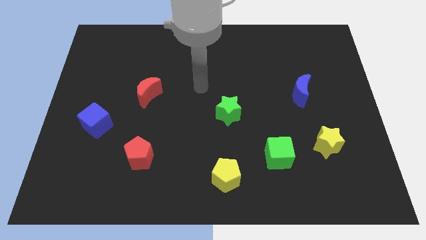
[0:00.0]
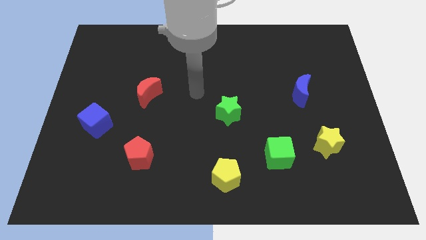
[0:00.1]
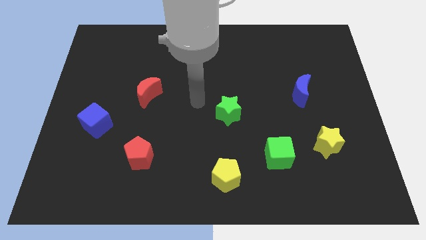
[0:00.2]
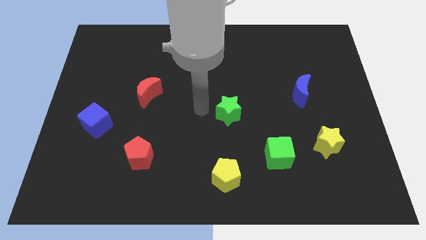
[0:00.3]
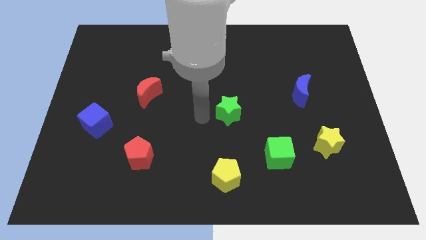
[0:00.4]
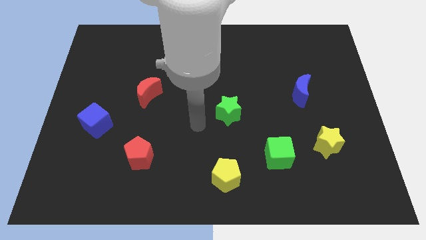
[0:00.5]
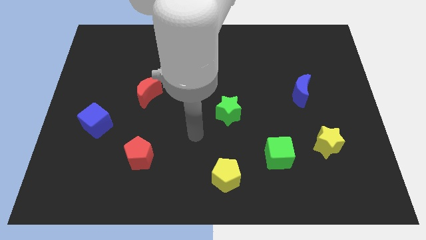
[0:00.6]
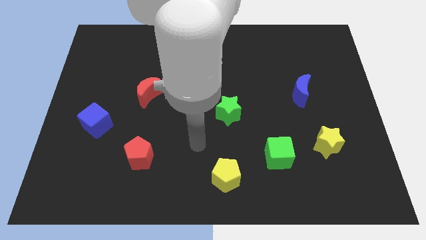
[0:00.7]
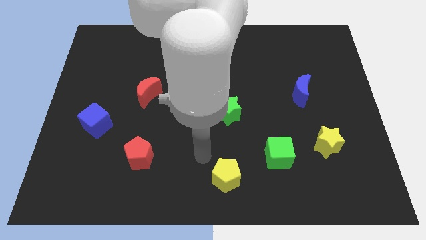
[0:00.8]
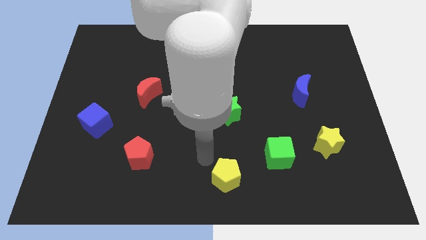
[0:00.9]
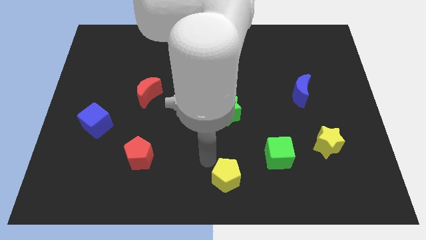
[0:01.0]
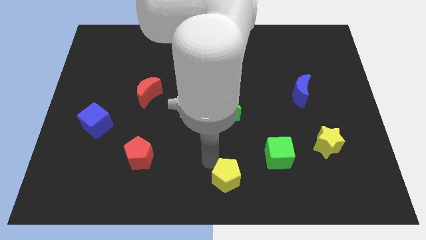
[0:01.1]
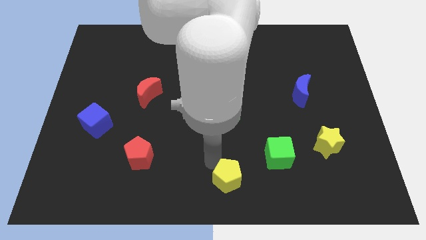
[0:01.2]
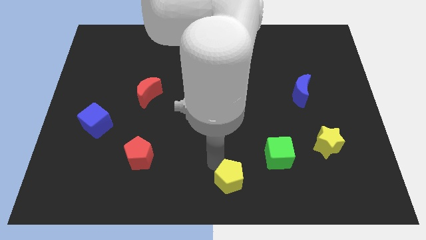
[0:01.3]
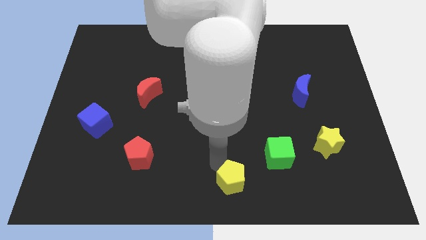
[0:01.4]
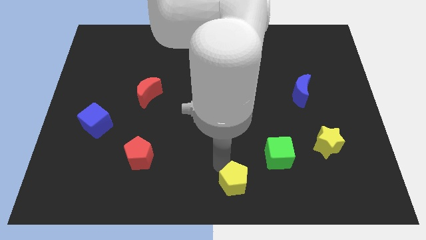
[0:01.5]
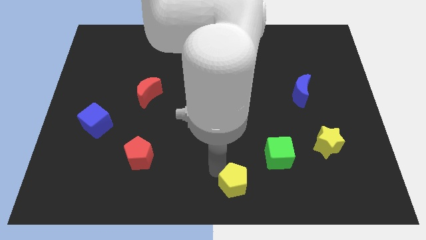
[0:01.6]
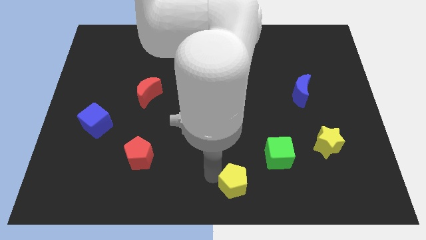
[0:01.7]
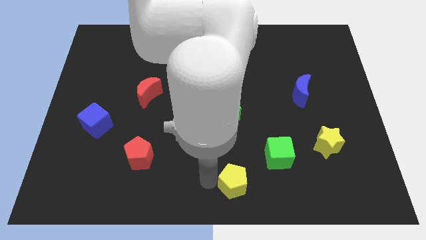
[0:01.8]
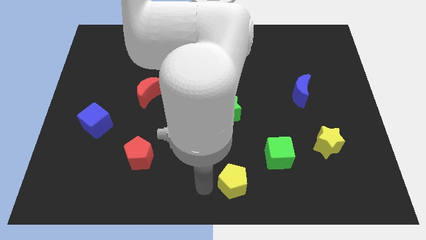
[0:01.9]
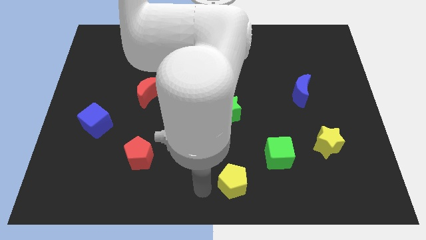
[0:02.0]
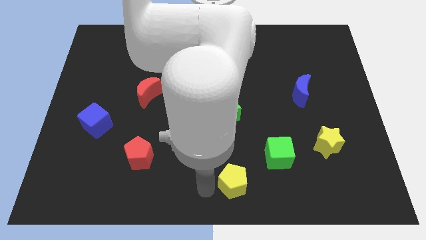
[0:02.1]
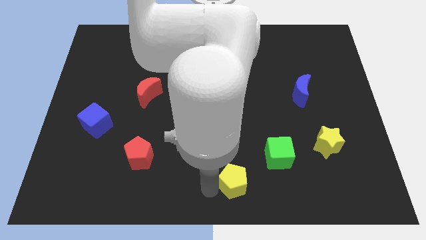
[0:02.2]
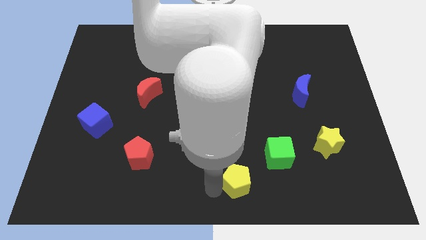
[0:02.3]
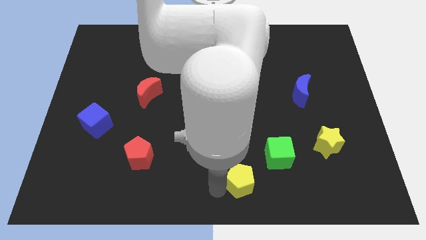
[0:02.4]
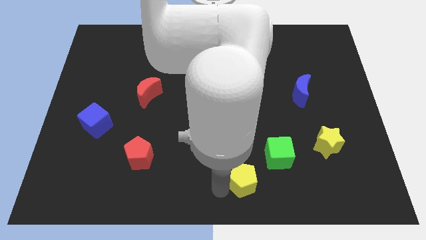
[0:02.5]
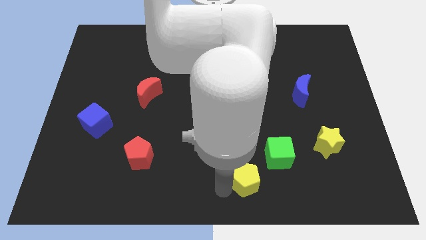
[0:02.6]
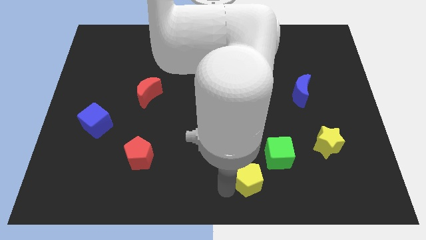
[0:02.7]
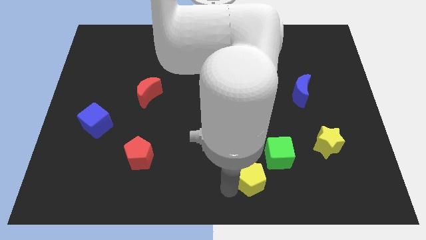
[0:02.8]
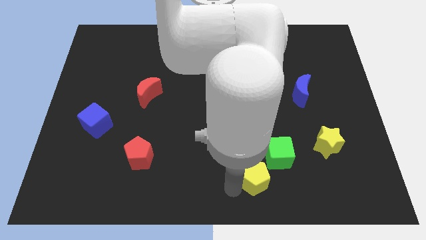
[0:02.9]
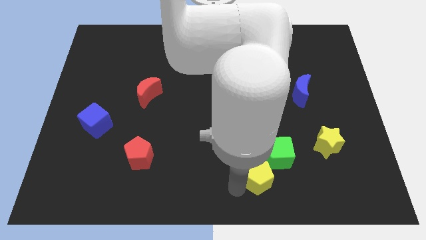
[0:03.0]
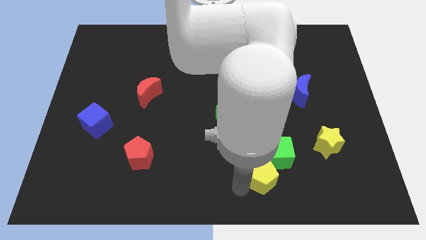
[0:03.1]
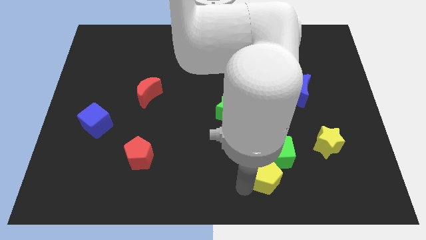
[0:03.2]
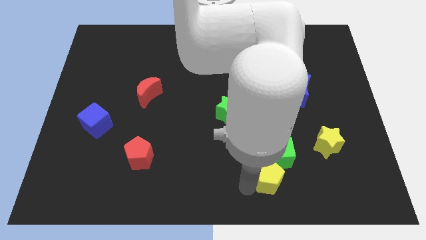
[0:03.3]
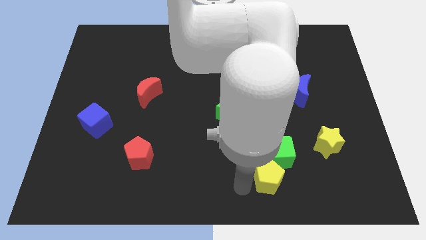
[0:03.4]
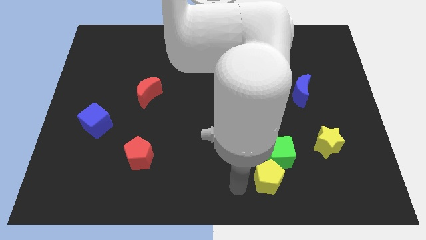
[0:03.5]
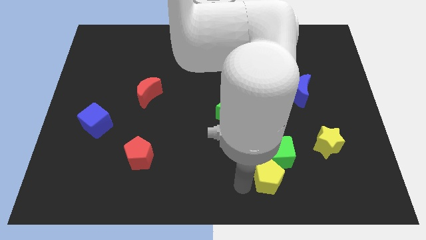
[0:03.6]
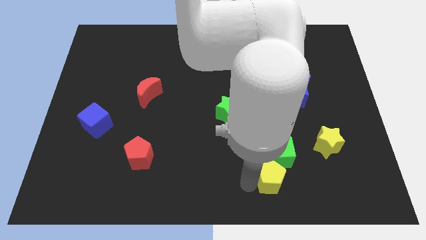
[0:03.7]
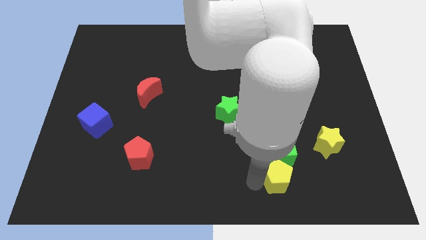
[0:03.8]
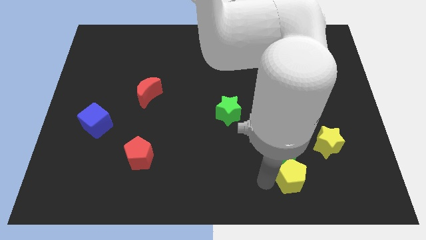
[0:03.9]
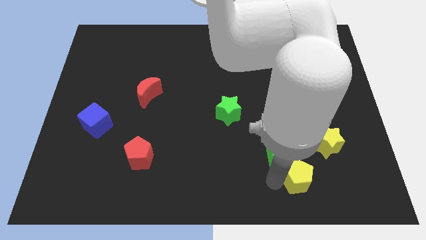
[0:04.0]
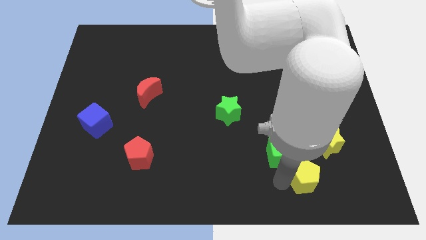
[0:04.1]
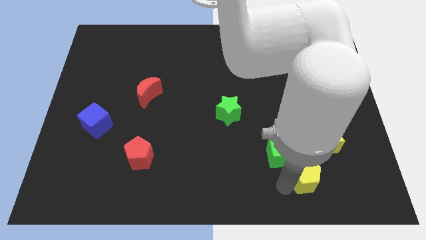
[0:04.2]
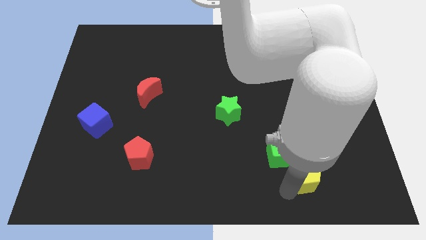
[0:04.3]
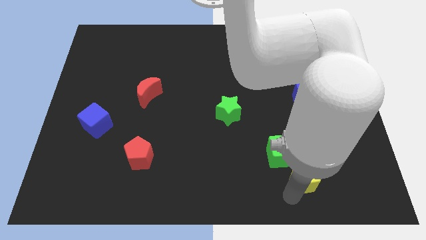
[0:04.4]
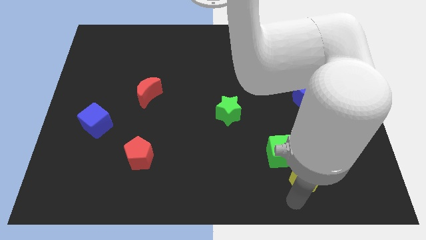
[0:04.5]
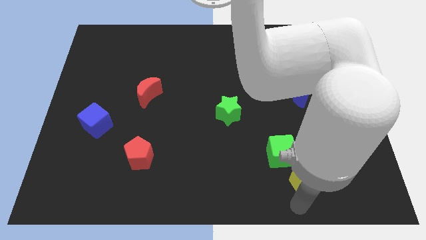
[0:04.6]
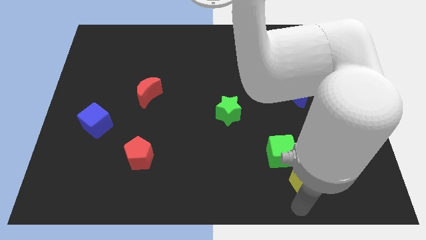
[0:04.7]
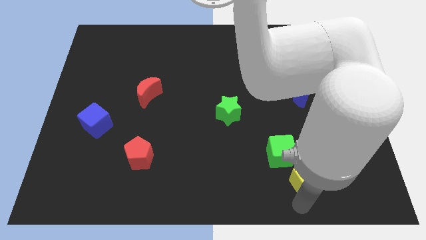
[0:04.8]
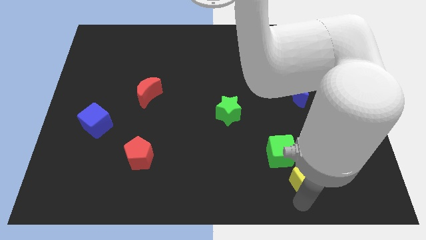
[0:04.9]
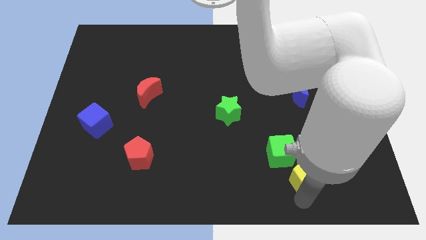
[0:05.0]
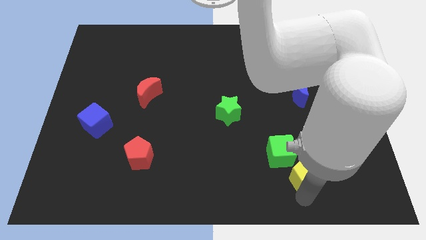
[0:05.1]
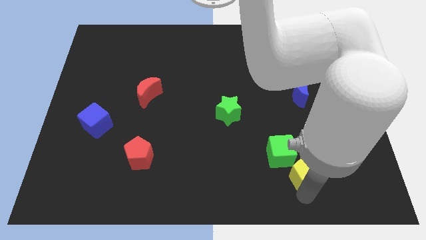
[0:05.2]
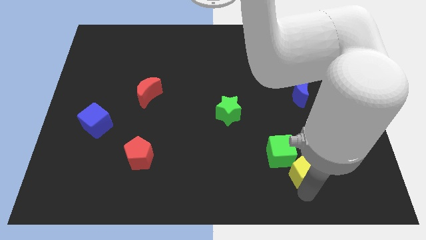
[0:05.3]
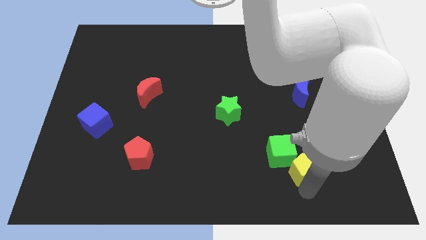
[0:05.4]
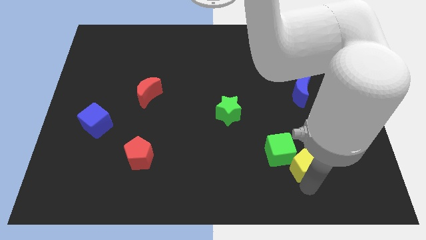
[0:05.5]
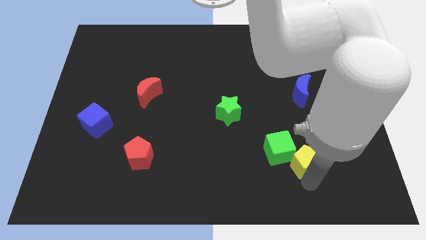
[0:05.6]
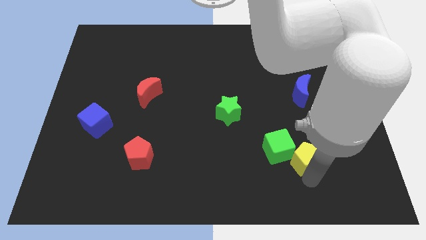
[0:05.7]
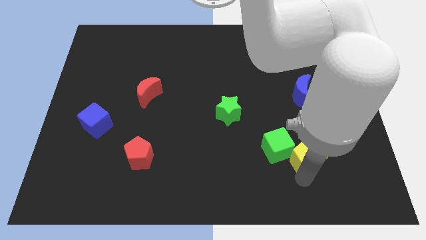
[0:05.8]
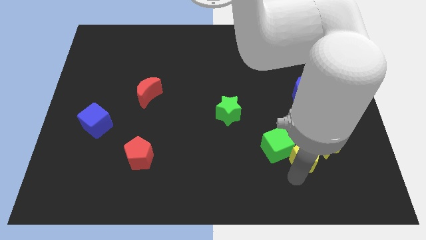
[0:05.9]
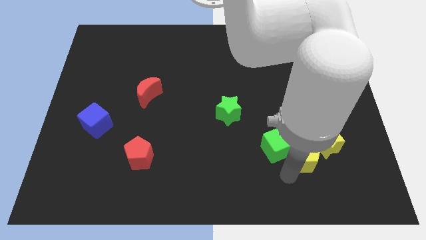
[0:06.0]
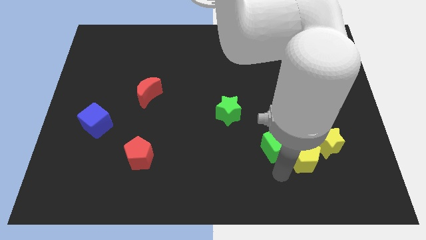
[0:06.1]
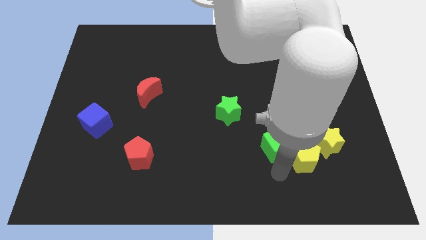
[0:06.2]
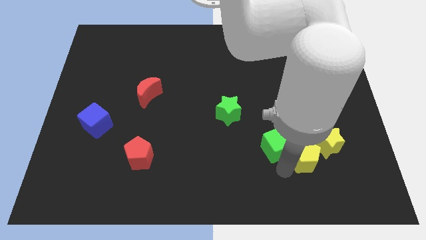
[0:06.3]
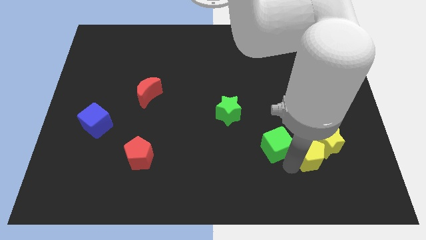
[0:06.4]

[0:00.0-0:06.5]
put the yellow pentagon close to the yellow star

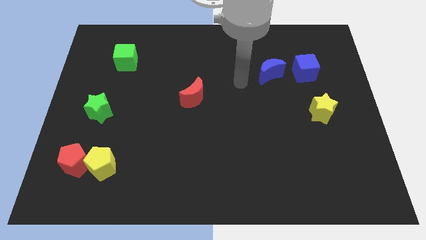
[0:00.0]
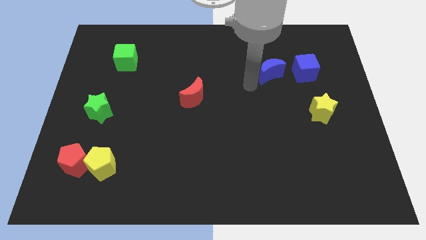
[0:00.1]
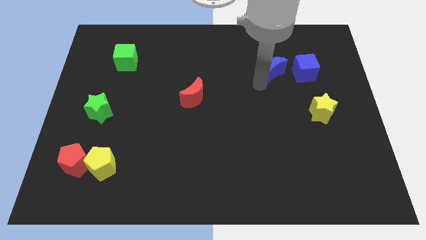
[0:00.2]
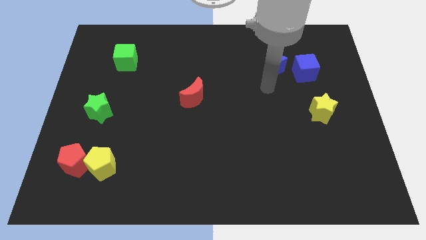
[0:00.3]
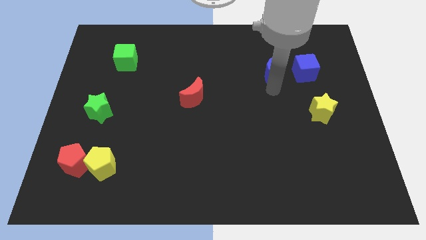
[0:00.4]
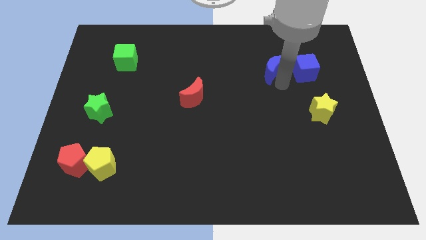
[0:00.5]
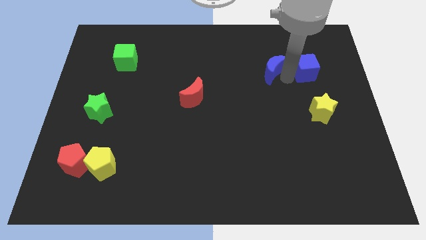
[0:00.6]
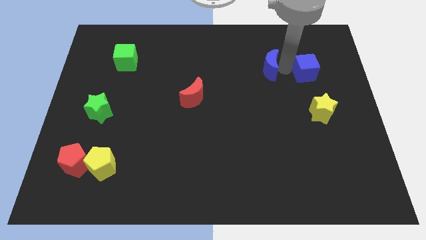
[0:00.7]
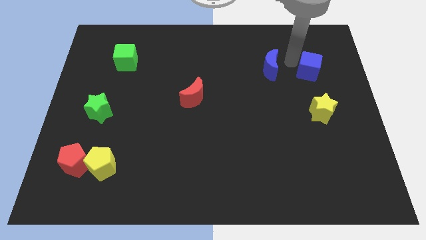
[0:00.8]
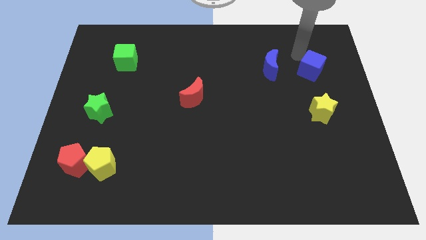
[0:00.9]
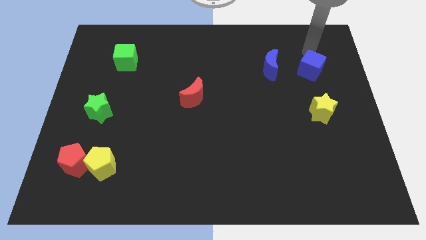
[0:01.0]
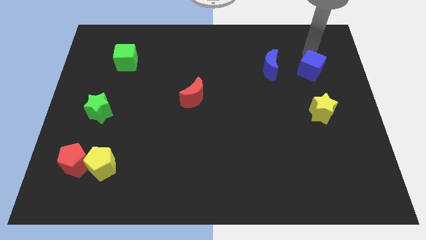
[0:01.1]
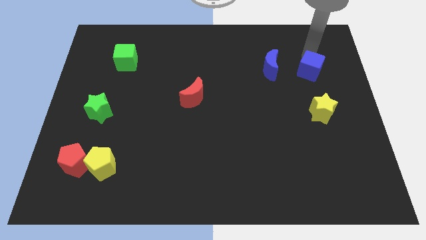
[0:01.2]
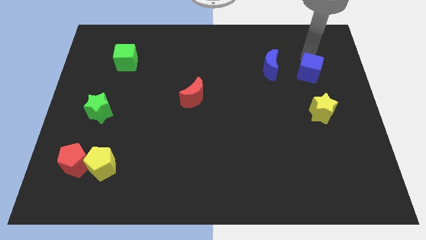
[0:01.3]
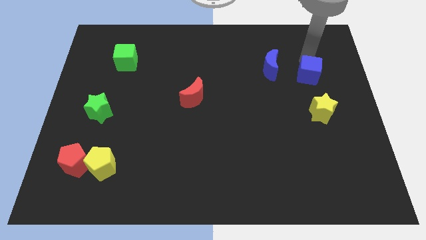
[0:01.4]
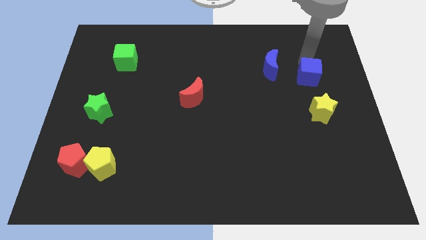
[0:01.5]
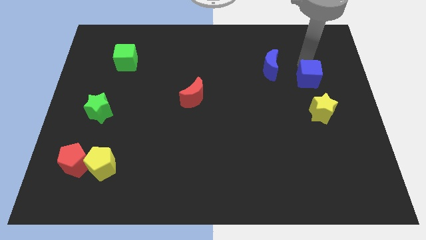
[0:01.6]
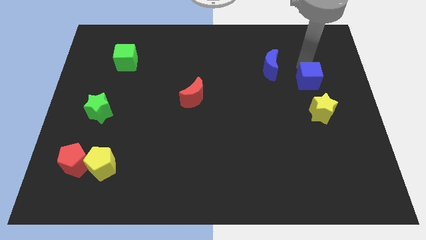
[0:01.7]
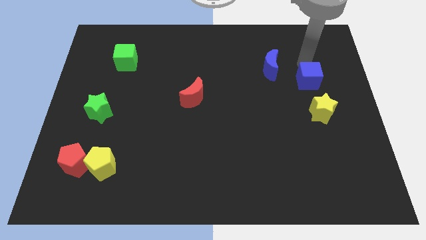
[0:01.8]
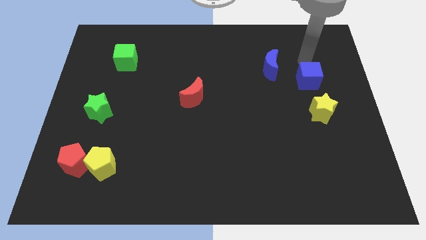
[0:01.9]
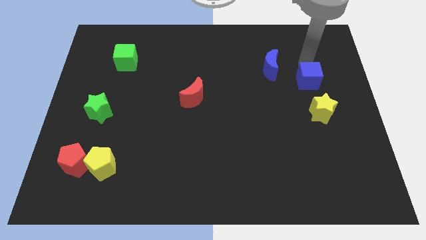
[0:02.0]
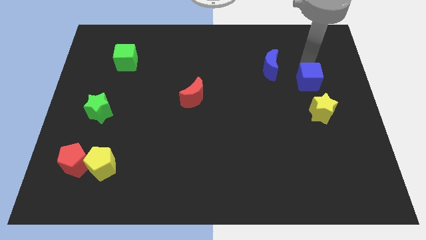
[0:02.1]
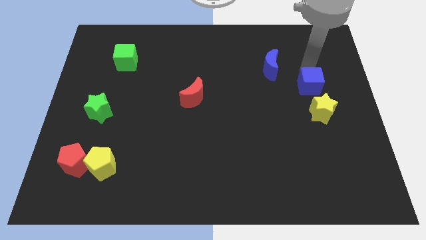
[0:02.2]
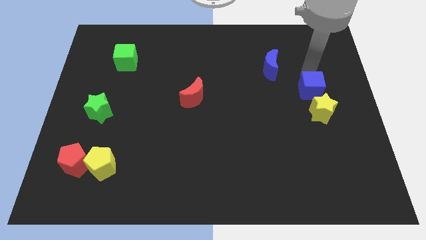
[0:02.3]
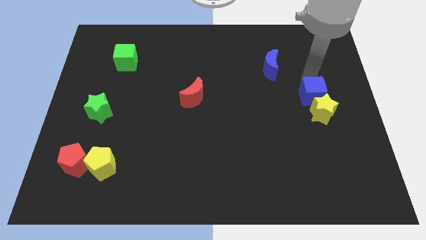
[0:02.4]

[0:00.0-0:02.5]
put the blue cube towards the yellow star
